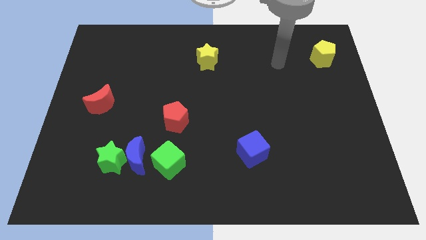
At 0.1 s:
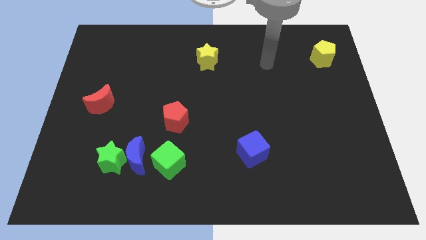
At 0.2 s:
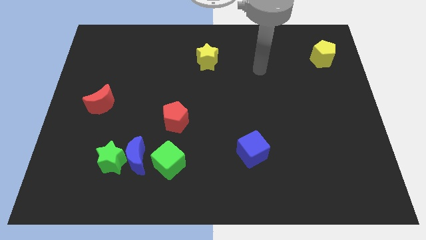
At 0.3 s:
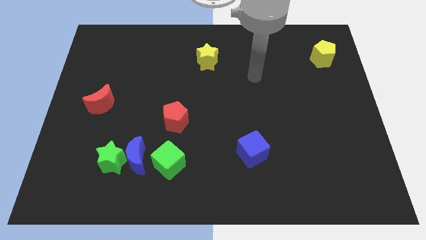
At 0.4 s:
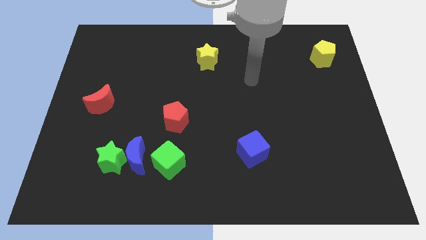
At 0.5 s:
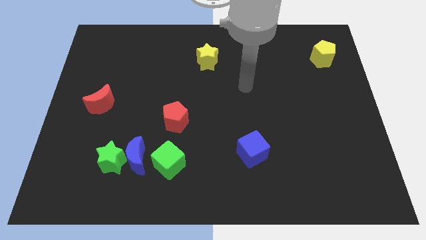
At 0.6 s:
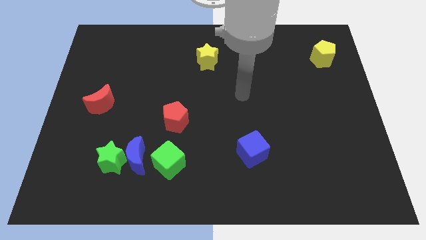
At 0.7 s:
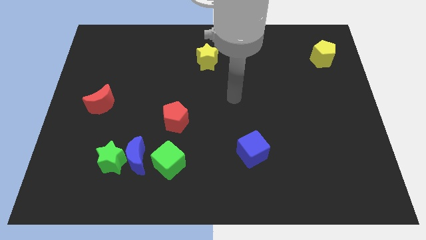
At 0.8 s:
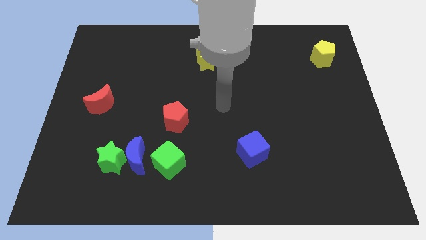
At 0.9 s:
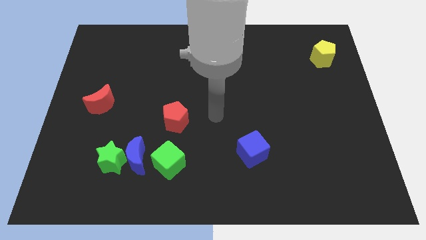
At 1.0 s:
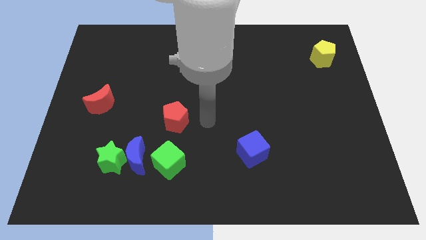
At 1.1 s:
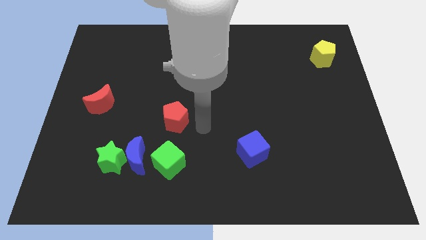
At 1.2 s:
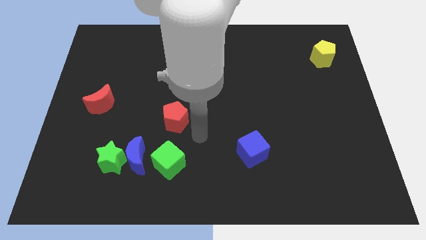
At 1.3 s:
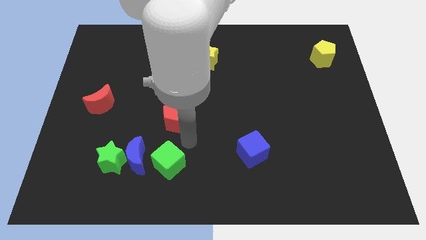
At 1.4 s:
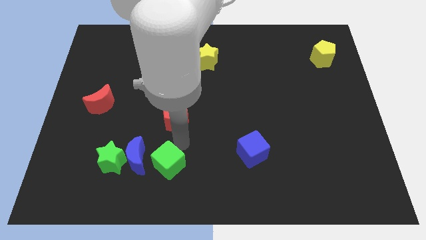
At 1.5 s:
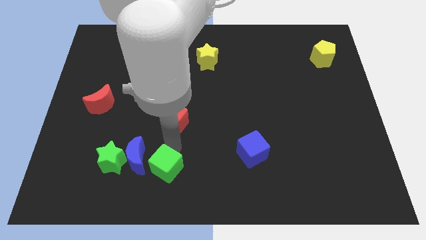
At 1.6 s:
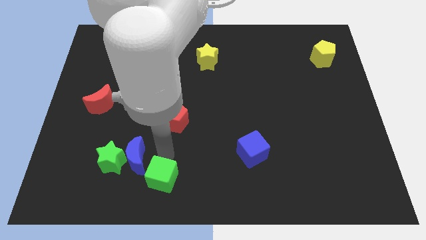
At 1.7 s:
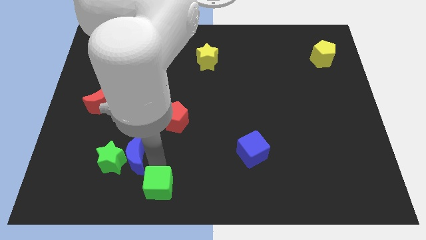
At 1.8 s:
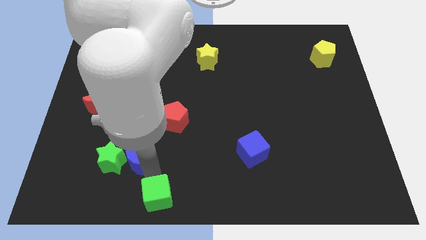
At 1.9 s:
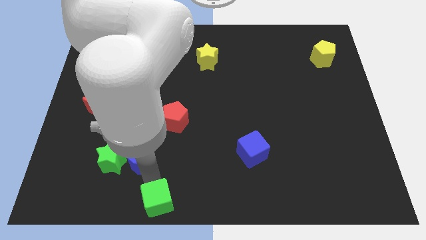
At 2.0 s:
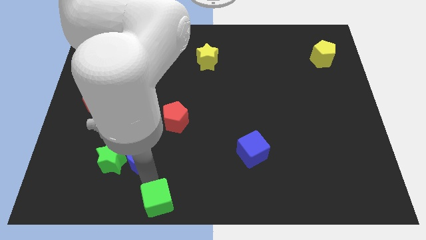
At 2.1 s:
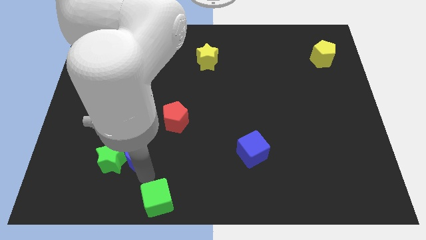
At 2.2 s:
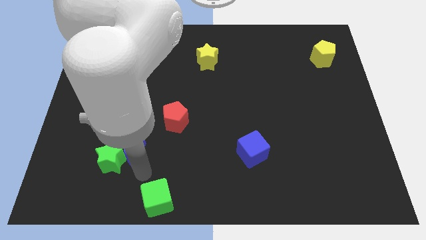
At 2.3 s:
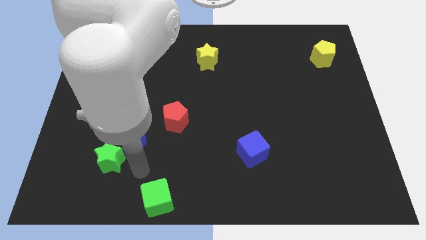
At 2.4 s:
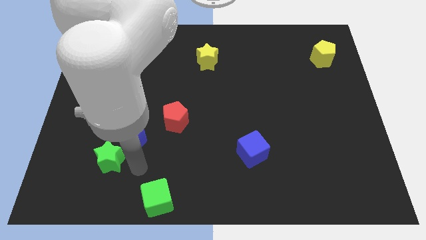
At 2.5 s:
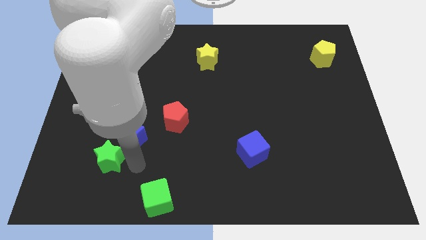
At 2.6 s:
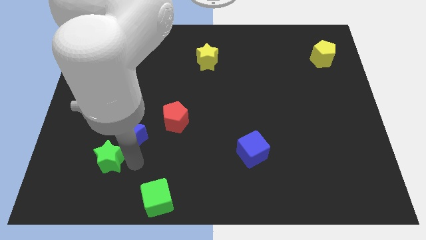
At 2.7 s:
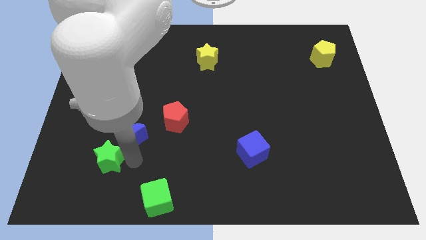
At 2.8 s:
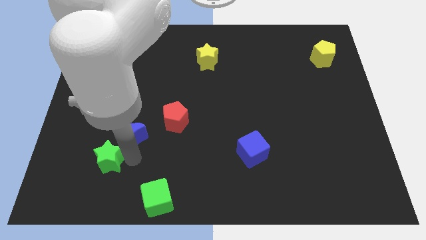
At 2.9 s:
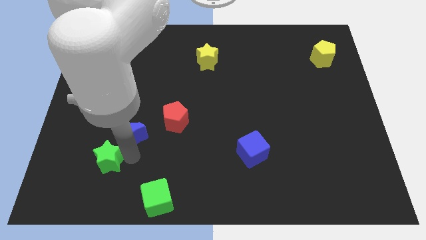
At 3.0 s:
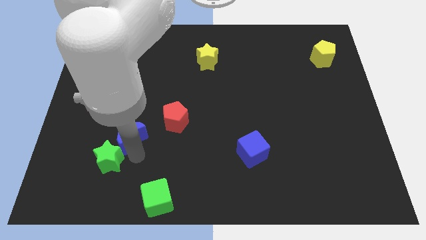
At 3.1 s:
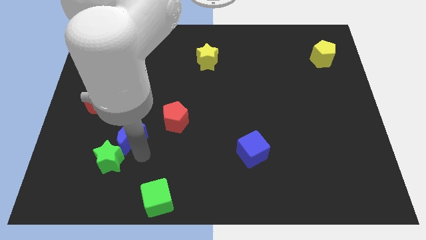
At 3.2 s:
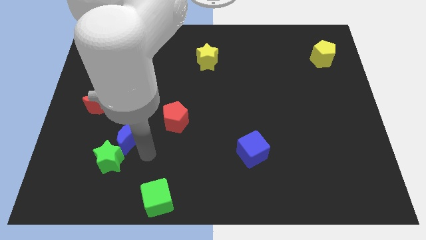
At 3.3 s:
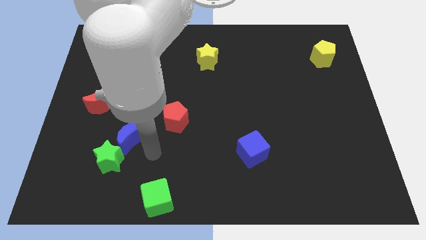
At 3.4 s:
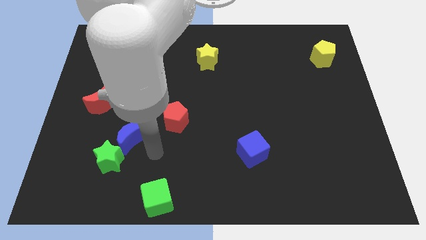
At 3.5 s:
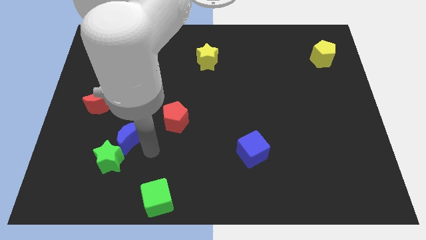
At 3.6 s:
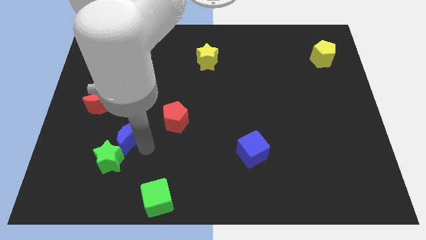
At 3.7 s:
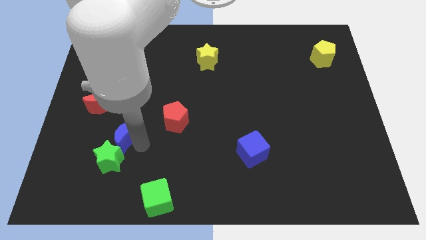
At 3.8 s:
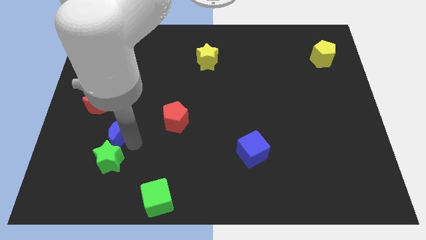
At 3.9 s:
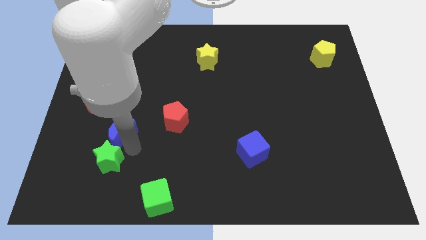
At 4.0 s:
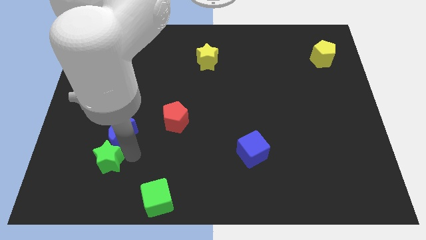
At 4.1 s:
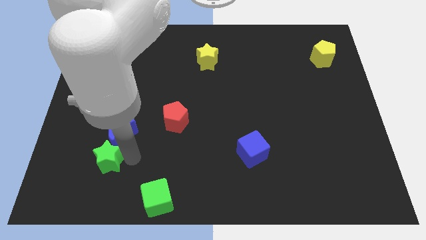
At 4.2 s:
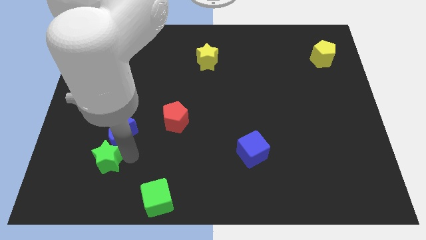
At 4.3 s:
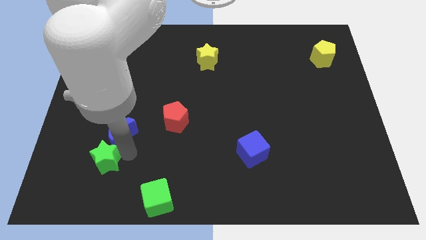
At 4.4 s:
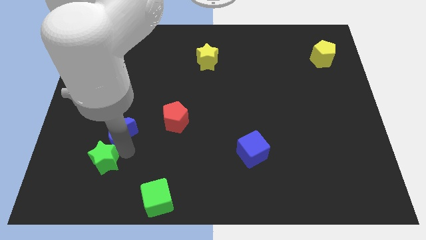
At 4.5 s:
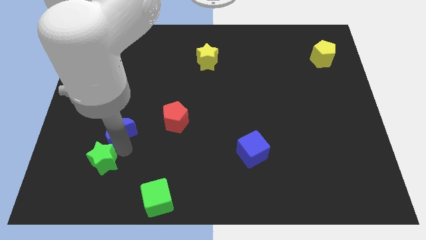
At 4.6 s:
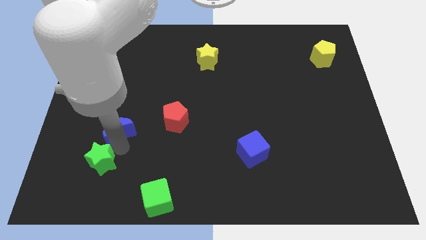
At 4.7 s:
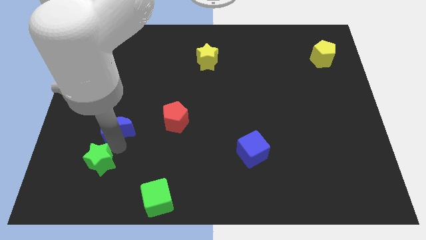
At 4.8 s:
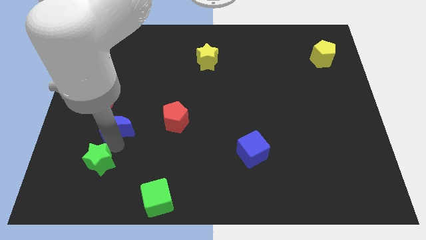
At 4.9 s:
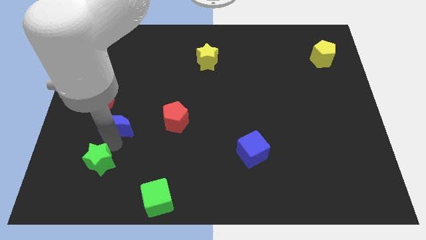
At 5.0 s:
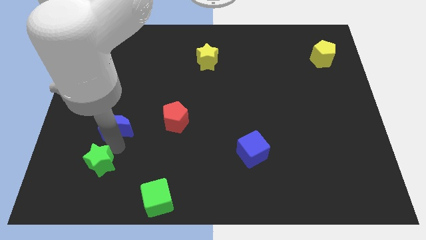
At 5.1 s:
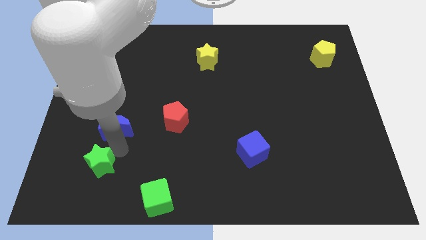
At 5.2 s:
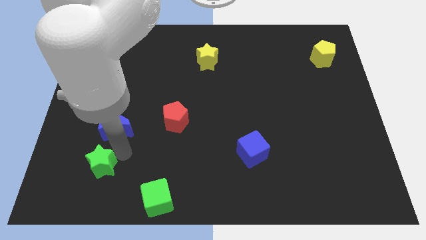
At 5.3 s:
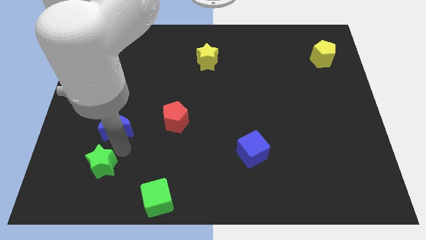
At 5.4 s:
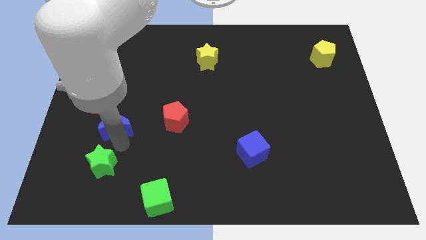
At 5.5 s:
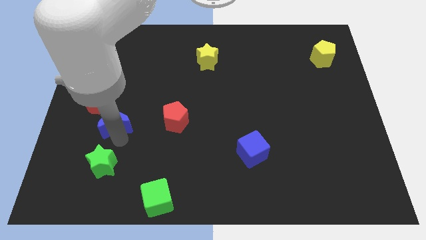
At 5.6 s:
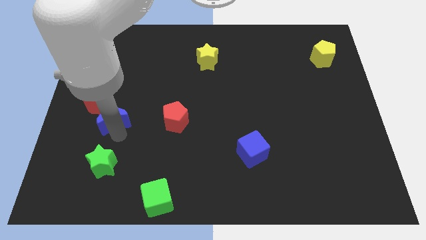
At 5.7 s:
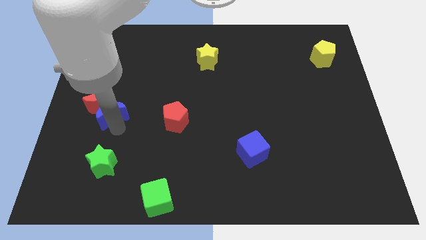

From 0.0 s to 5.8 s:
put the blue moon close to the red moon

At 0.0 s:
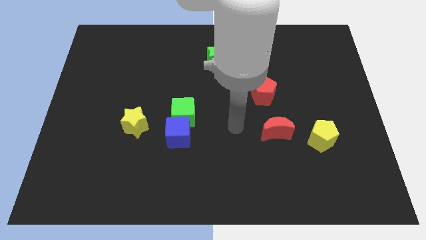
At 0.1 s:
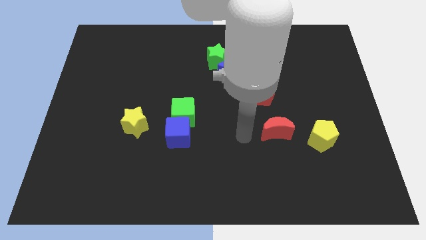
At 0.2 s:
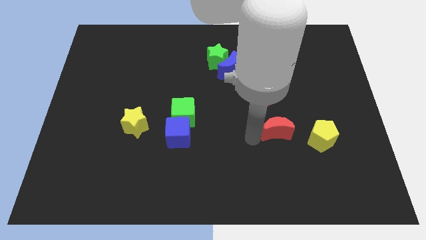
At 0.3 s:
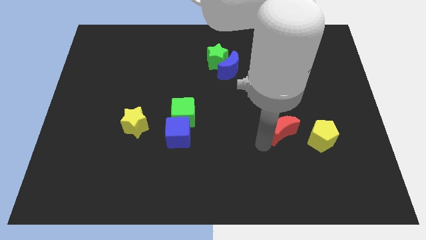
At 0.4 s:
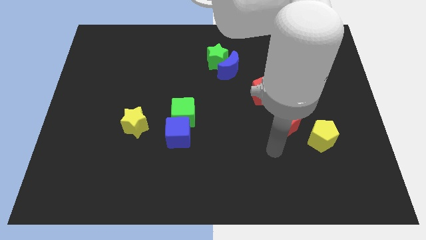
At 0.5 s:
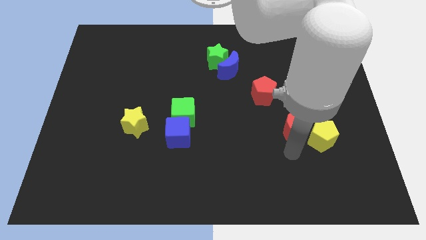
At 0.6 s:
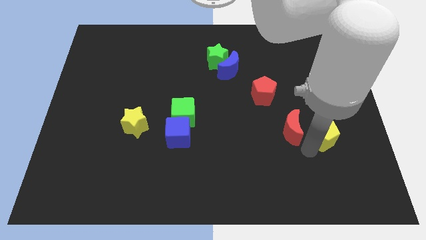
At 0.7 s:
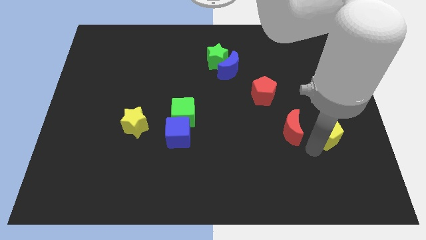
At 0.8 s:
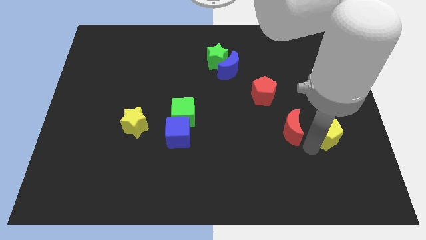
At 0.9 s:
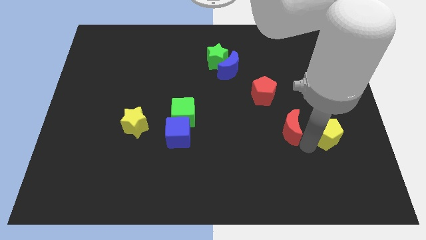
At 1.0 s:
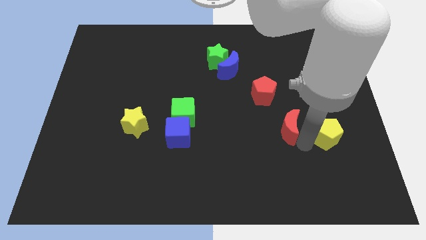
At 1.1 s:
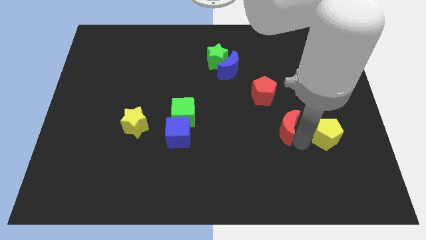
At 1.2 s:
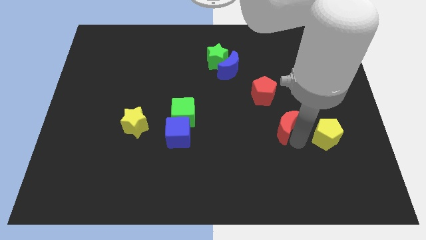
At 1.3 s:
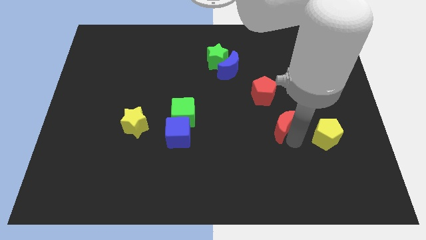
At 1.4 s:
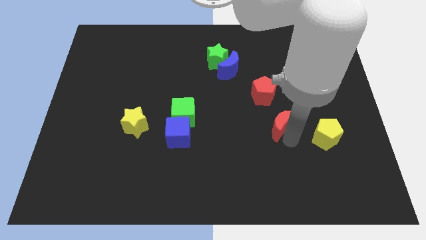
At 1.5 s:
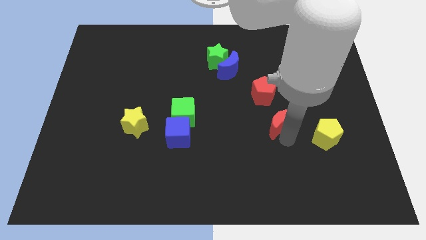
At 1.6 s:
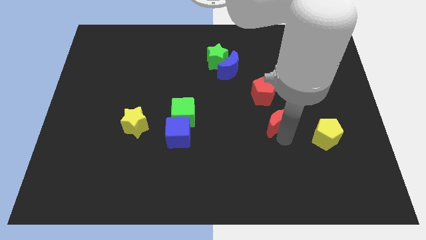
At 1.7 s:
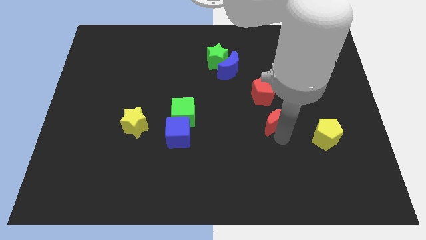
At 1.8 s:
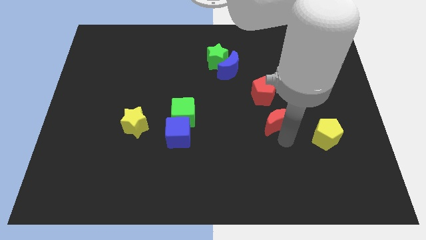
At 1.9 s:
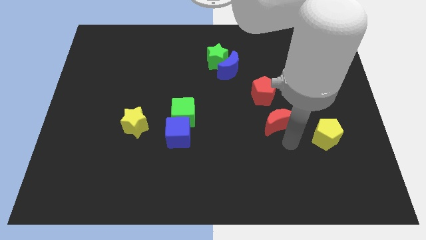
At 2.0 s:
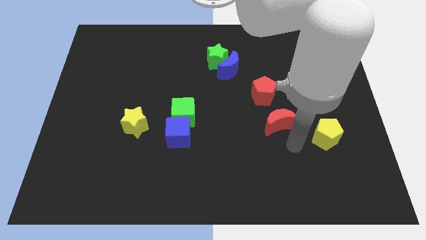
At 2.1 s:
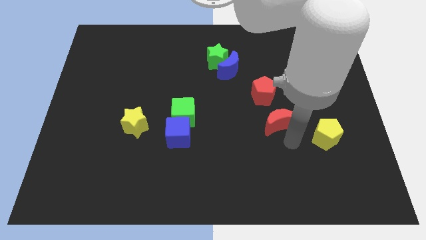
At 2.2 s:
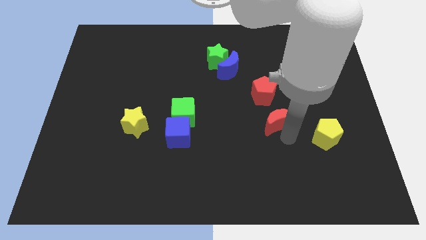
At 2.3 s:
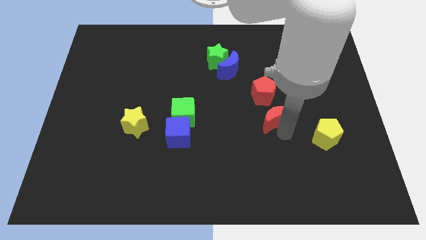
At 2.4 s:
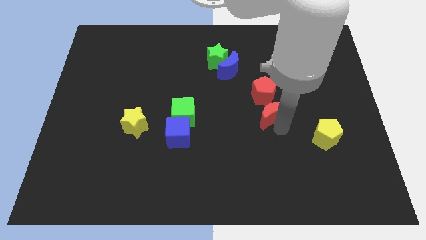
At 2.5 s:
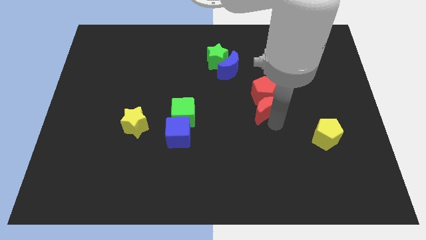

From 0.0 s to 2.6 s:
slide the red moon close to the red pentagon
